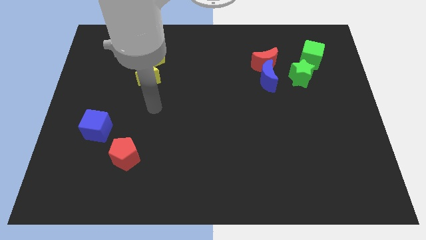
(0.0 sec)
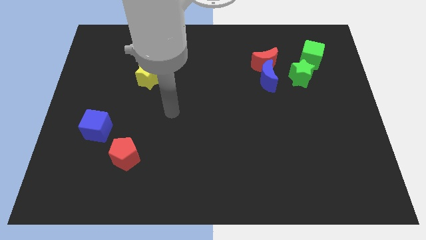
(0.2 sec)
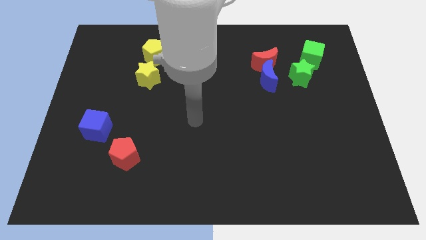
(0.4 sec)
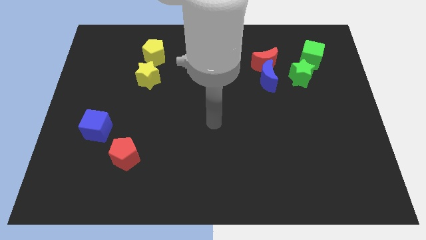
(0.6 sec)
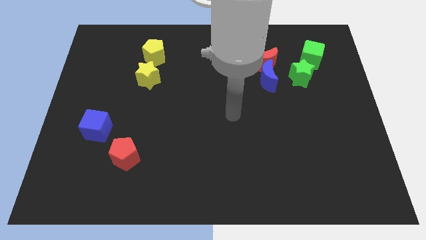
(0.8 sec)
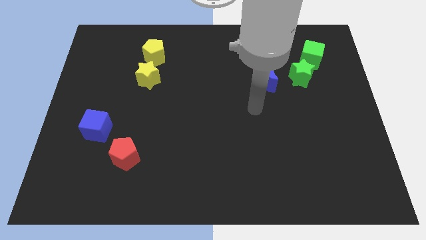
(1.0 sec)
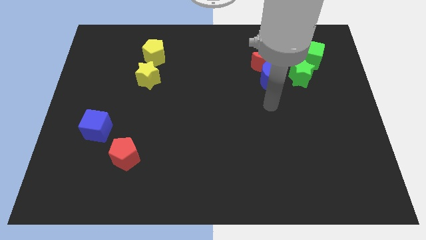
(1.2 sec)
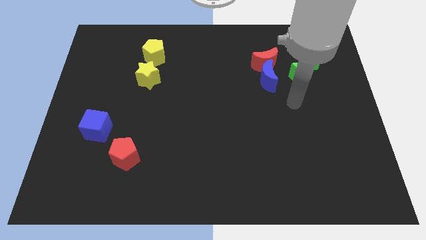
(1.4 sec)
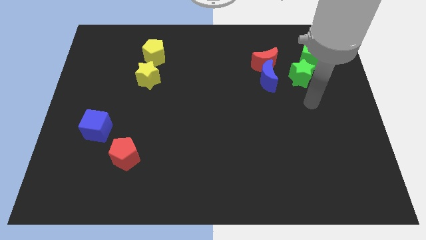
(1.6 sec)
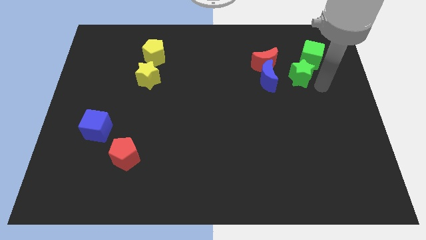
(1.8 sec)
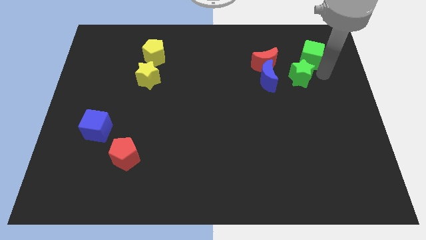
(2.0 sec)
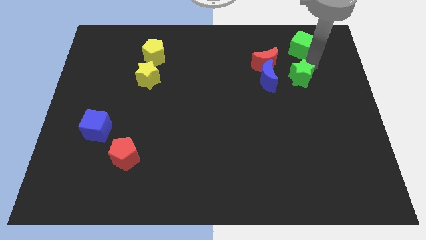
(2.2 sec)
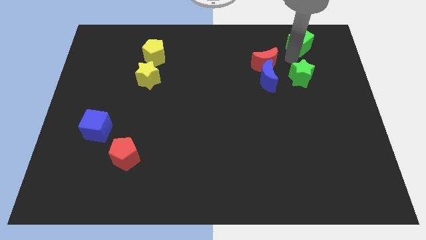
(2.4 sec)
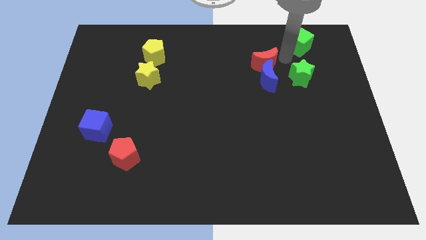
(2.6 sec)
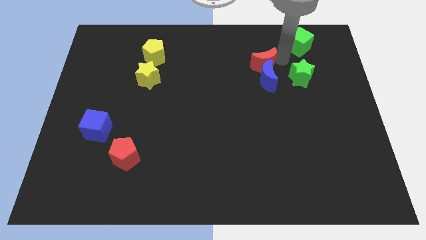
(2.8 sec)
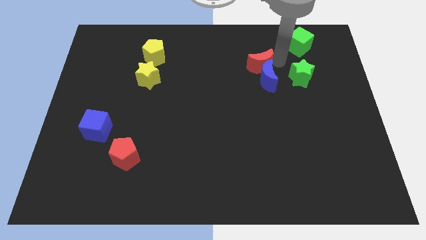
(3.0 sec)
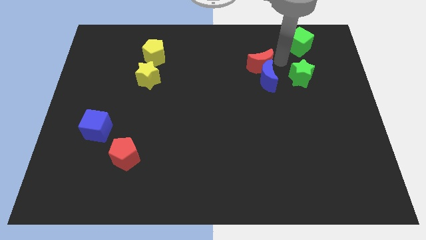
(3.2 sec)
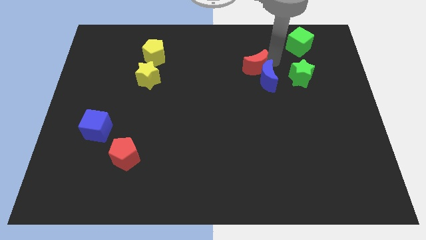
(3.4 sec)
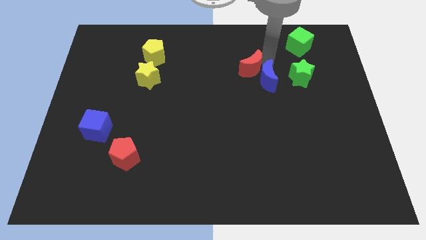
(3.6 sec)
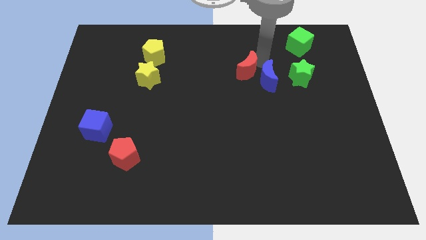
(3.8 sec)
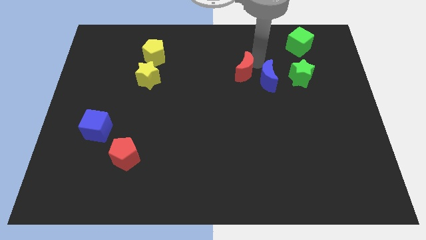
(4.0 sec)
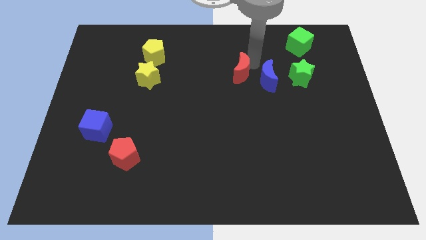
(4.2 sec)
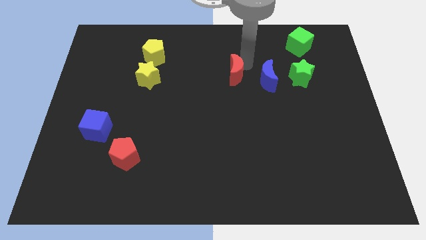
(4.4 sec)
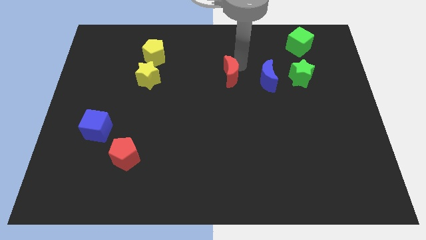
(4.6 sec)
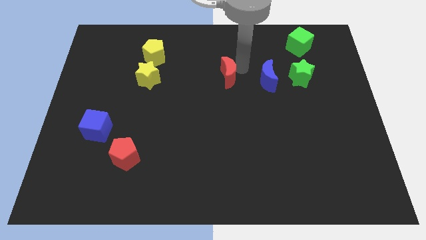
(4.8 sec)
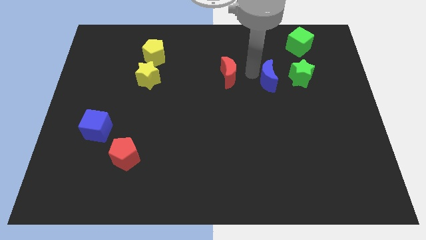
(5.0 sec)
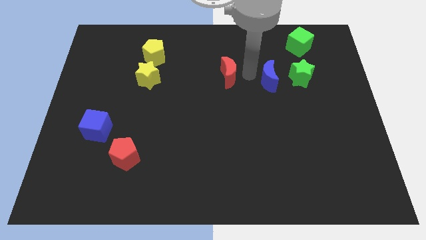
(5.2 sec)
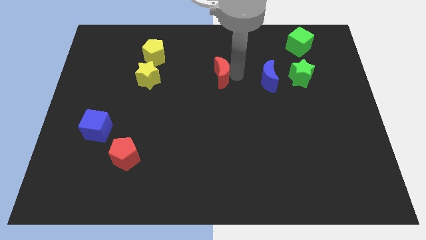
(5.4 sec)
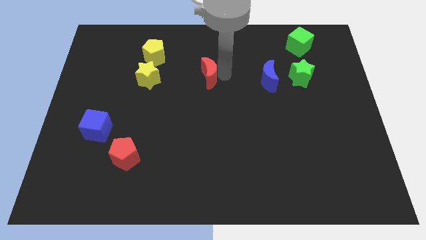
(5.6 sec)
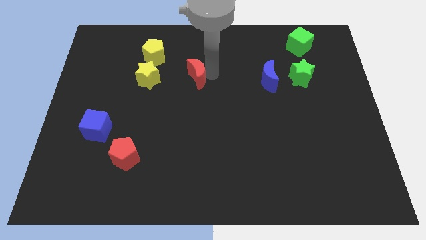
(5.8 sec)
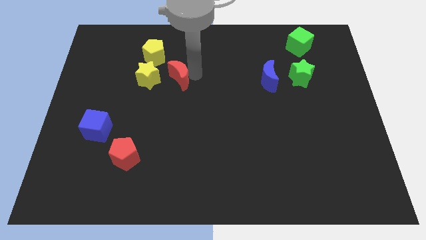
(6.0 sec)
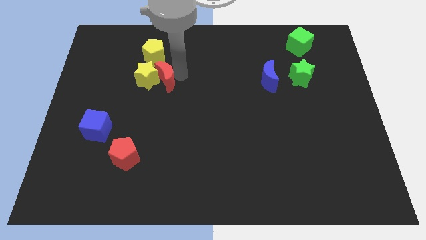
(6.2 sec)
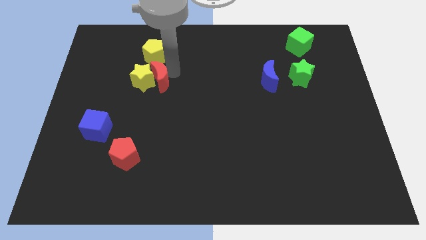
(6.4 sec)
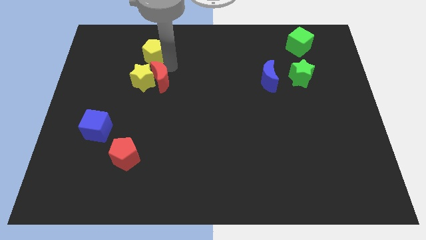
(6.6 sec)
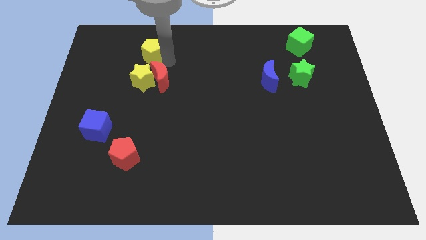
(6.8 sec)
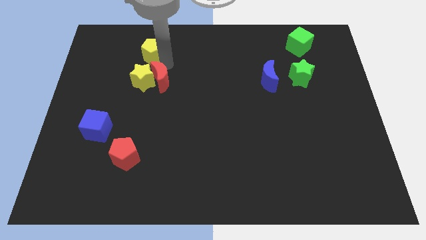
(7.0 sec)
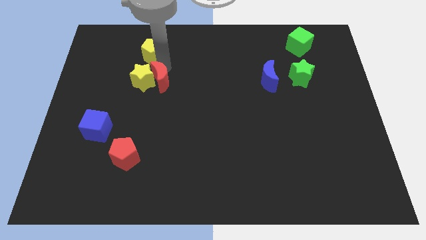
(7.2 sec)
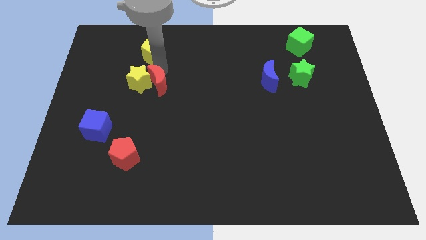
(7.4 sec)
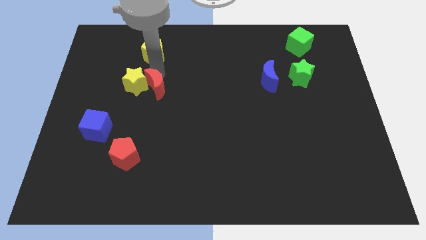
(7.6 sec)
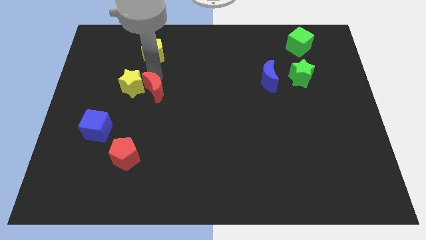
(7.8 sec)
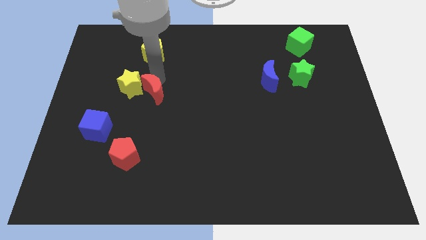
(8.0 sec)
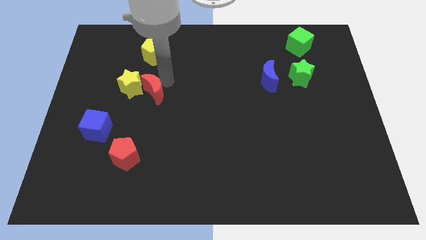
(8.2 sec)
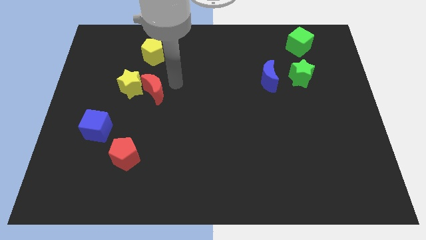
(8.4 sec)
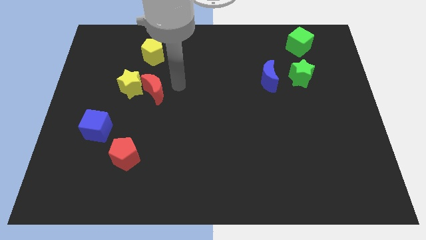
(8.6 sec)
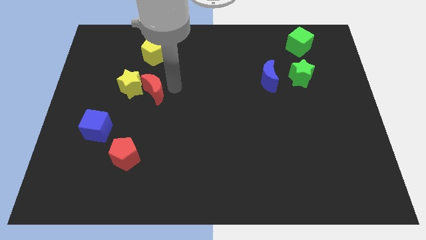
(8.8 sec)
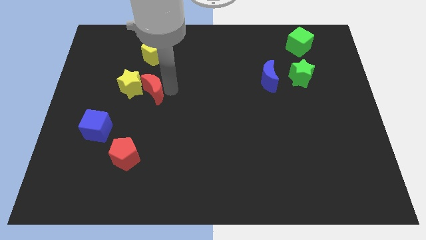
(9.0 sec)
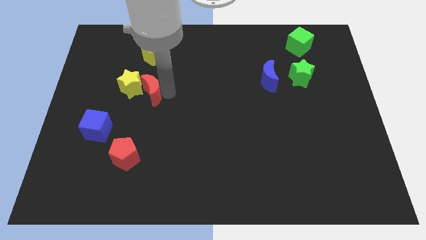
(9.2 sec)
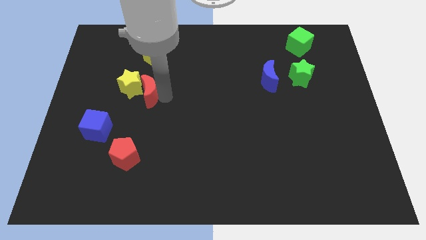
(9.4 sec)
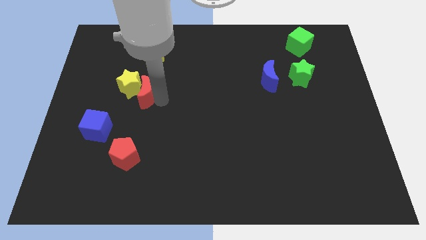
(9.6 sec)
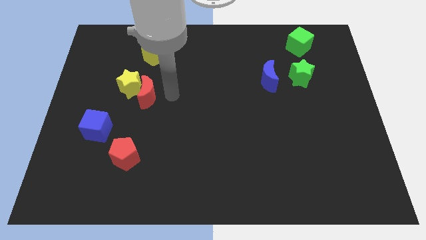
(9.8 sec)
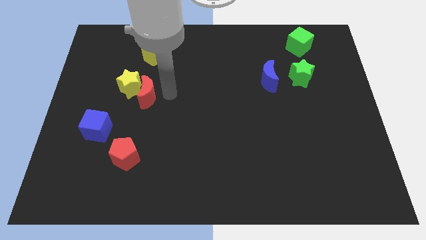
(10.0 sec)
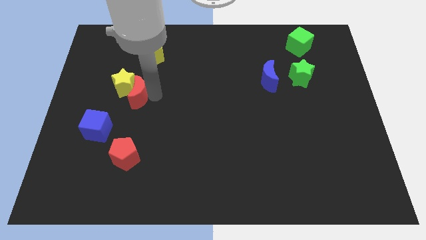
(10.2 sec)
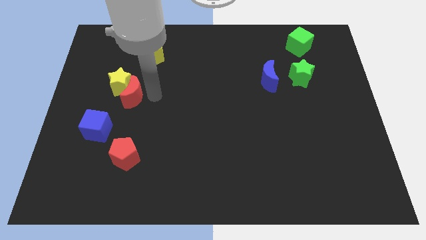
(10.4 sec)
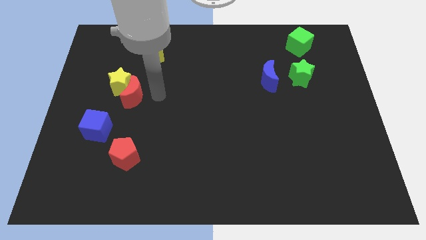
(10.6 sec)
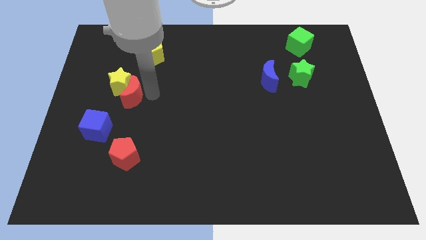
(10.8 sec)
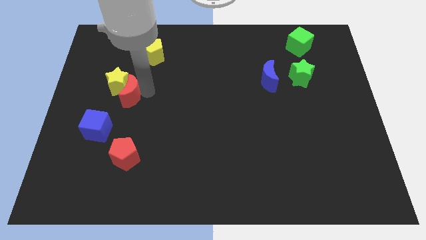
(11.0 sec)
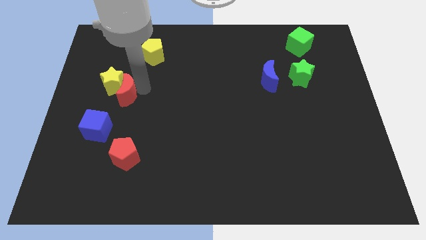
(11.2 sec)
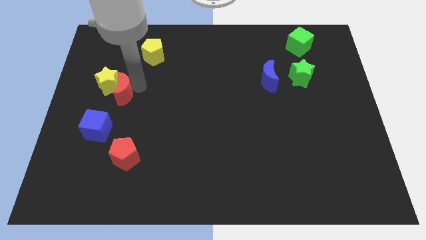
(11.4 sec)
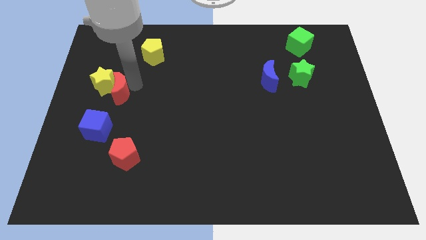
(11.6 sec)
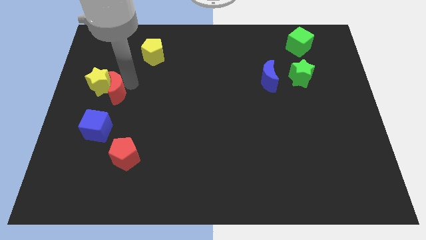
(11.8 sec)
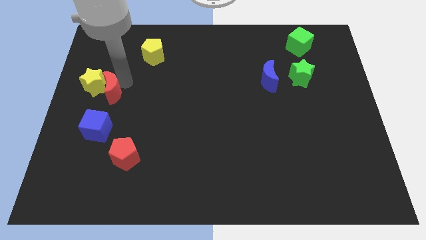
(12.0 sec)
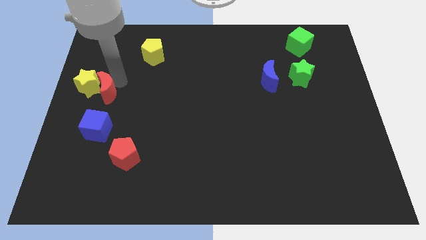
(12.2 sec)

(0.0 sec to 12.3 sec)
push the red moon to the left side
